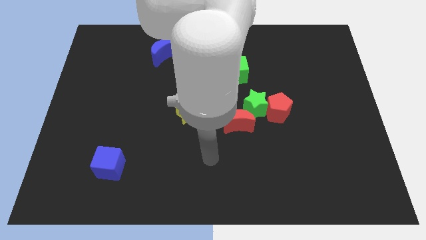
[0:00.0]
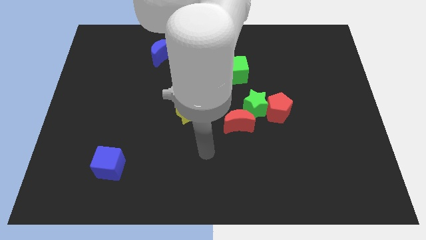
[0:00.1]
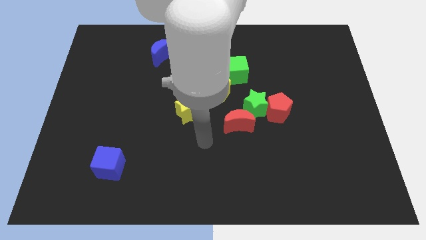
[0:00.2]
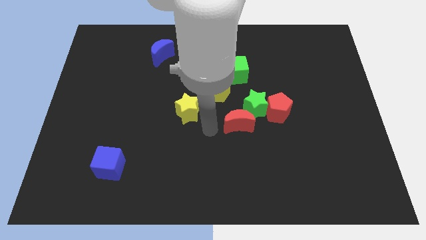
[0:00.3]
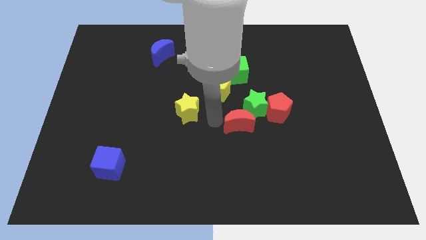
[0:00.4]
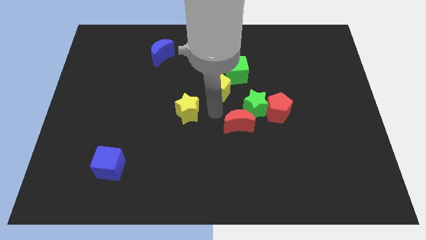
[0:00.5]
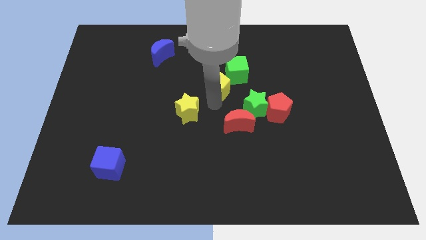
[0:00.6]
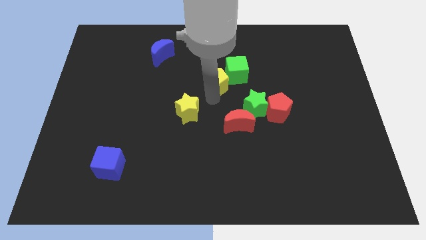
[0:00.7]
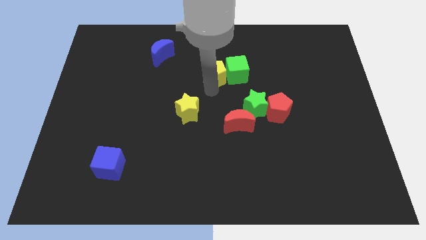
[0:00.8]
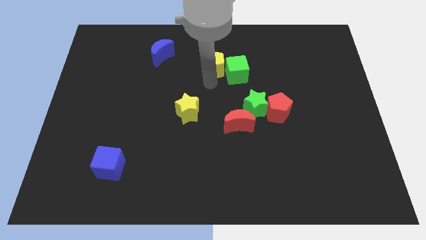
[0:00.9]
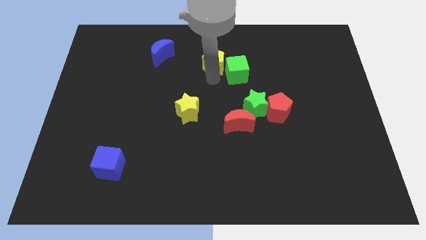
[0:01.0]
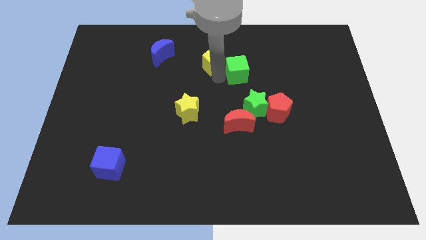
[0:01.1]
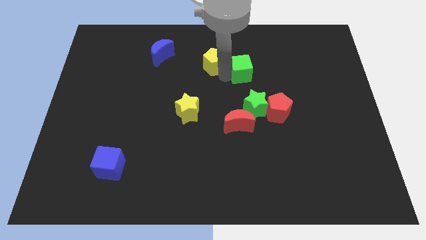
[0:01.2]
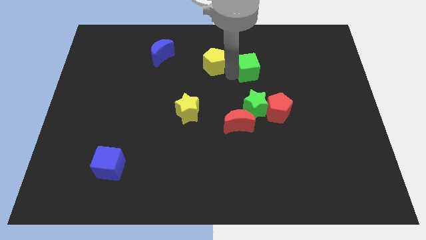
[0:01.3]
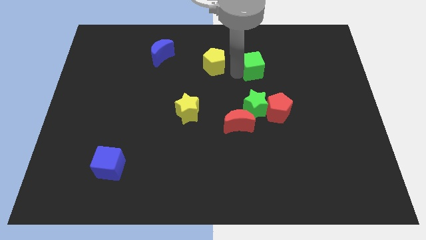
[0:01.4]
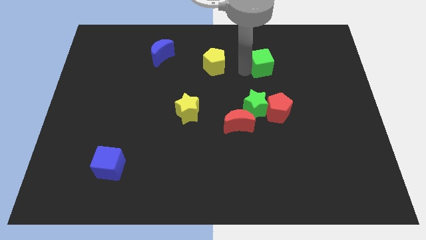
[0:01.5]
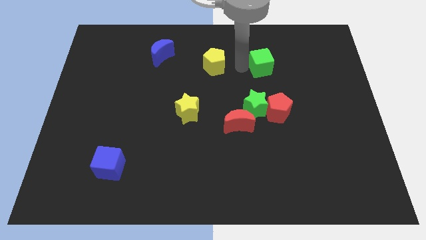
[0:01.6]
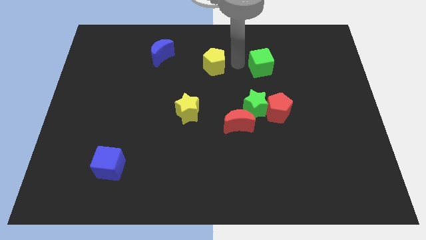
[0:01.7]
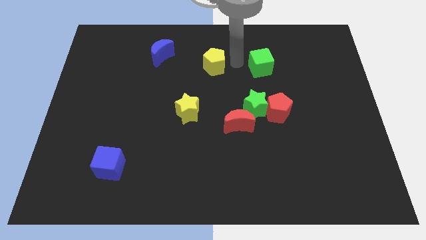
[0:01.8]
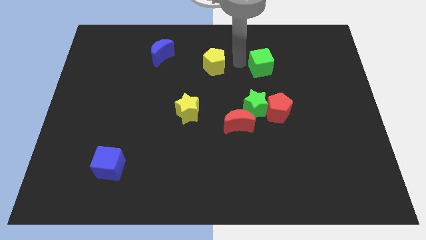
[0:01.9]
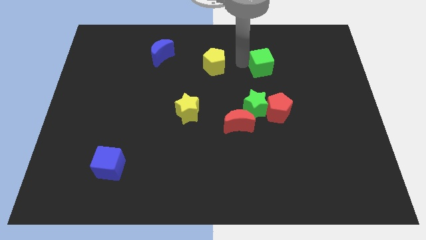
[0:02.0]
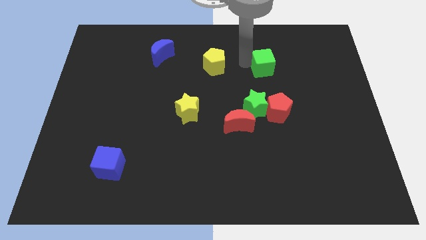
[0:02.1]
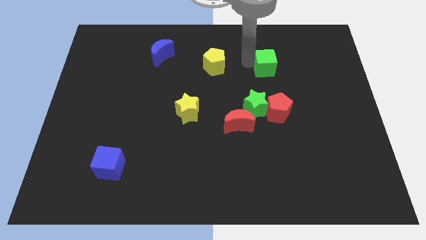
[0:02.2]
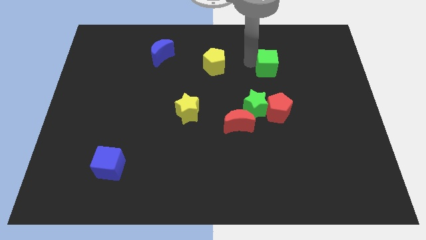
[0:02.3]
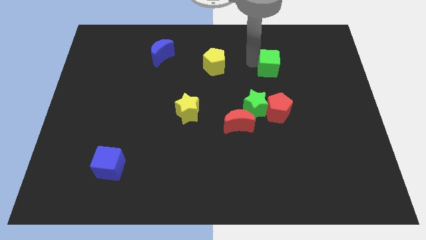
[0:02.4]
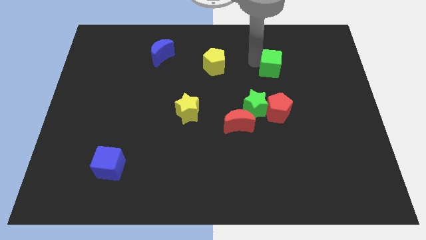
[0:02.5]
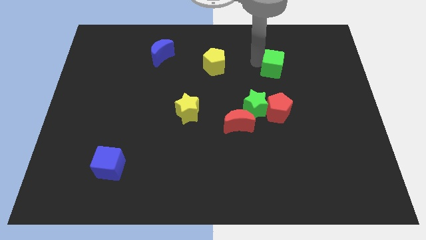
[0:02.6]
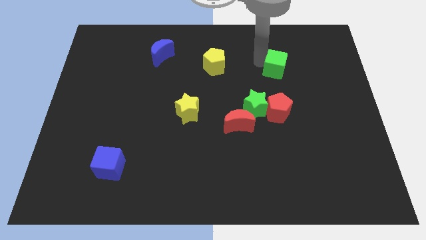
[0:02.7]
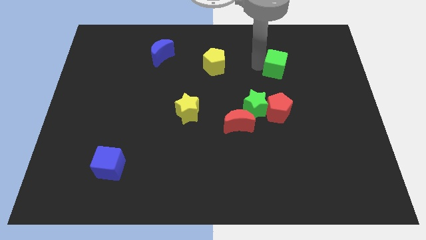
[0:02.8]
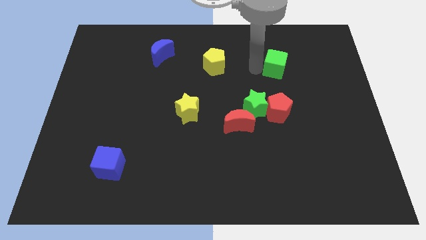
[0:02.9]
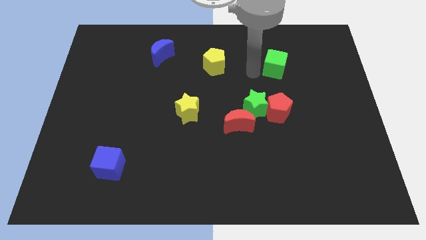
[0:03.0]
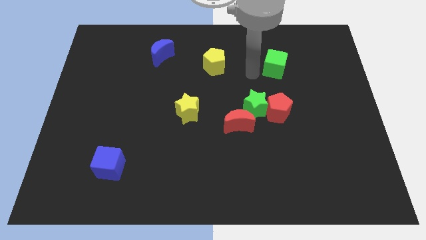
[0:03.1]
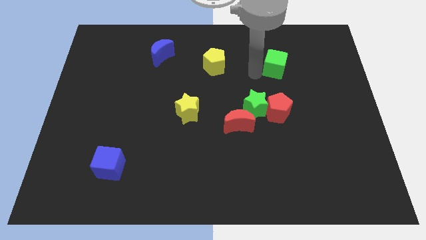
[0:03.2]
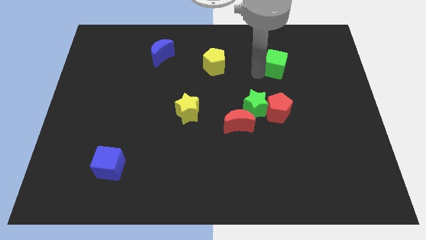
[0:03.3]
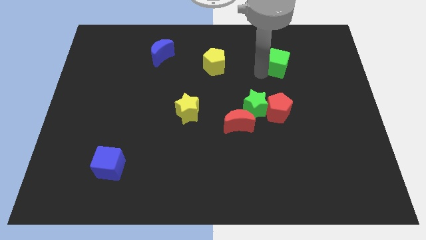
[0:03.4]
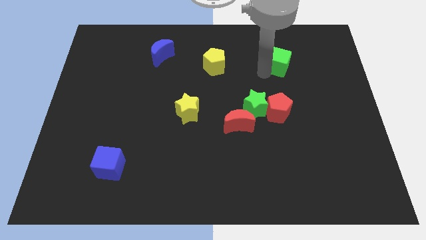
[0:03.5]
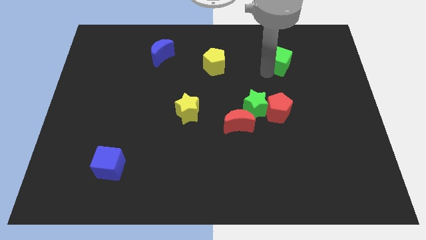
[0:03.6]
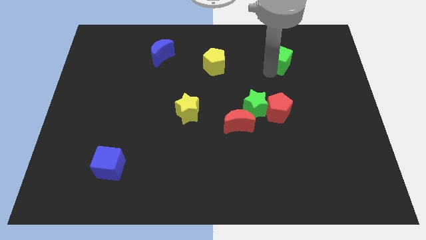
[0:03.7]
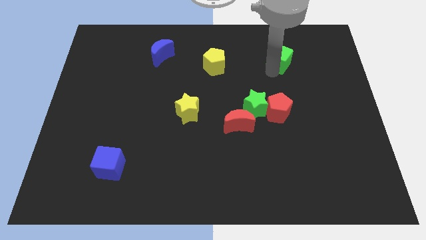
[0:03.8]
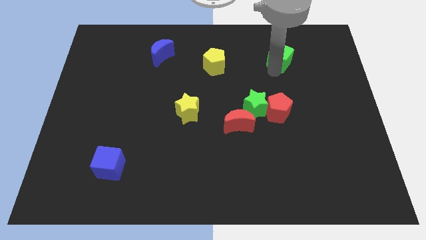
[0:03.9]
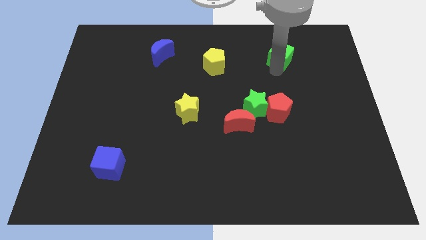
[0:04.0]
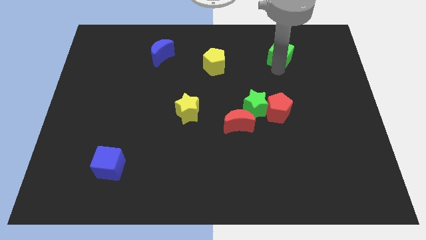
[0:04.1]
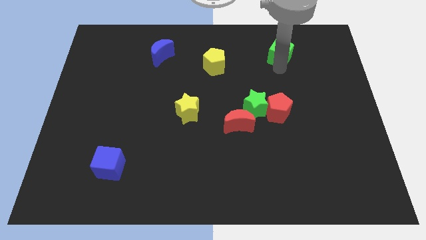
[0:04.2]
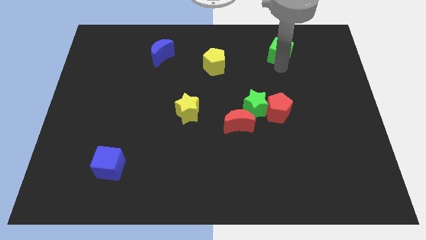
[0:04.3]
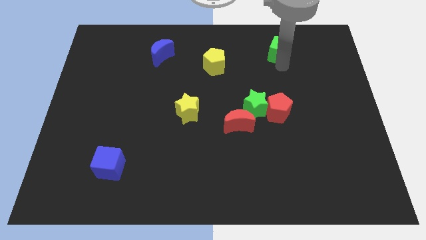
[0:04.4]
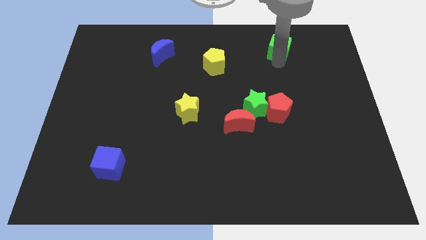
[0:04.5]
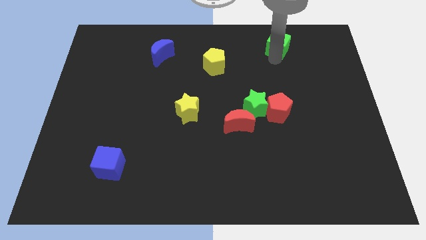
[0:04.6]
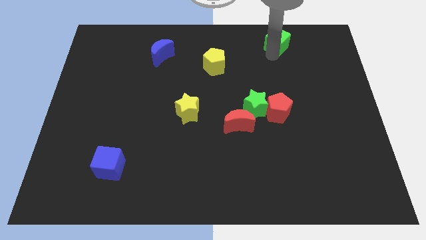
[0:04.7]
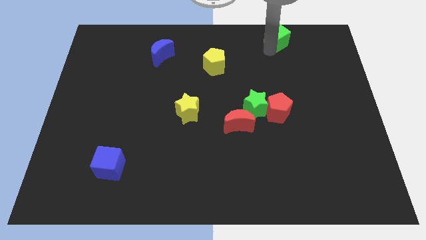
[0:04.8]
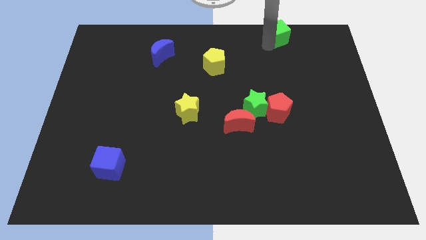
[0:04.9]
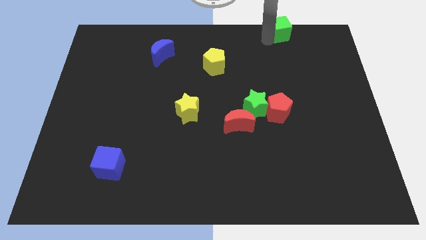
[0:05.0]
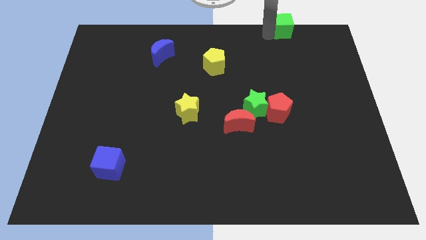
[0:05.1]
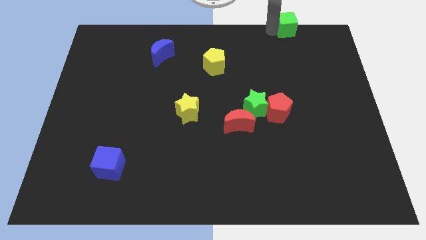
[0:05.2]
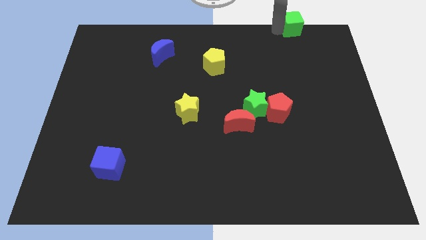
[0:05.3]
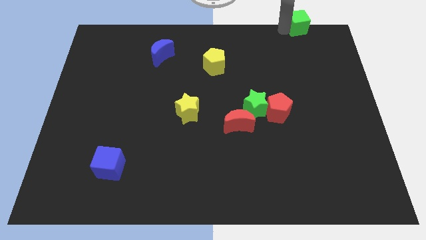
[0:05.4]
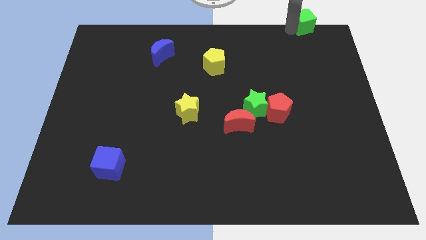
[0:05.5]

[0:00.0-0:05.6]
put the green cube to the top right corner
